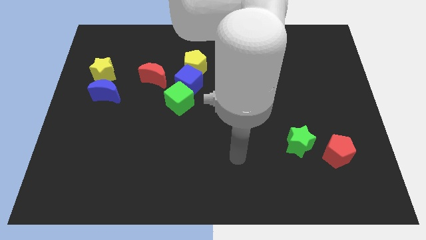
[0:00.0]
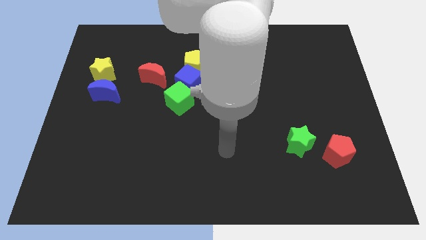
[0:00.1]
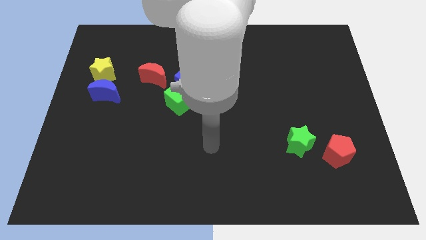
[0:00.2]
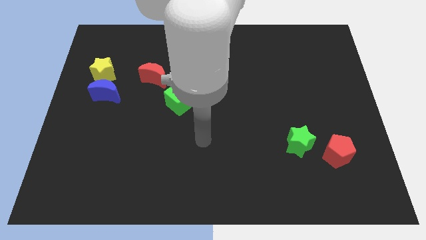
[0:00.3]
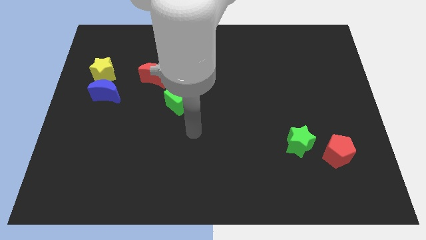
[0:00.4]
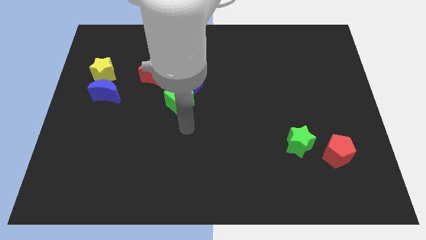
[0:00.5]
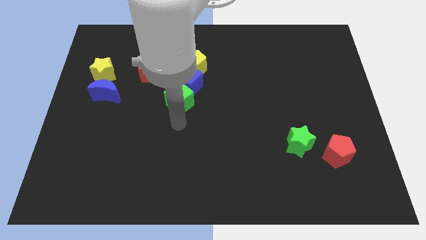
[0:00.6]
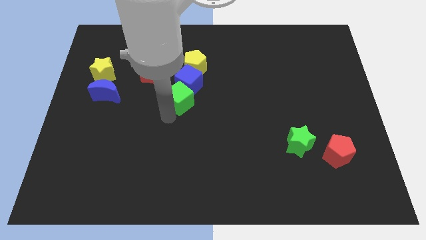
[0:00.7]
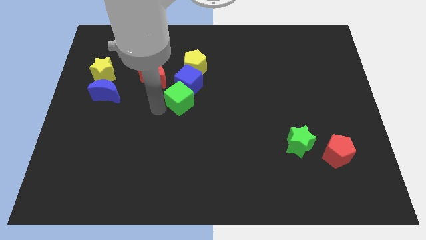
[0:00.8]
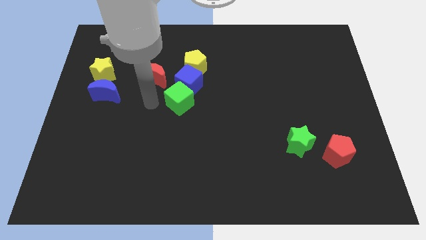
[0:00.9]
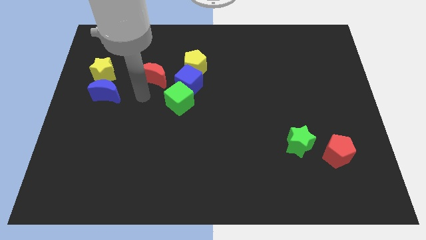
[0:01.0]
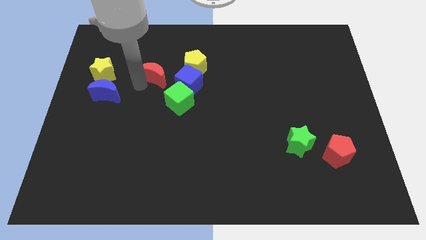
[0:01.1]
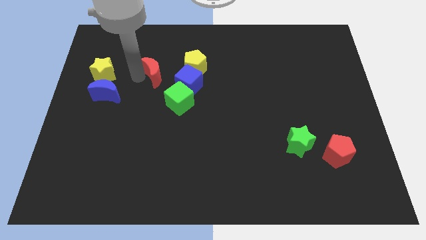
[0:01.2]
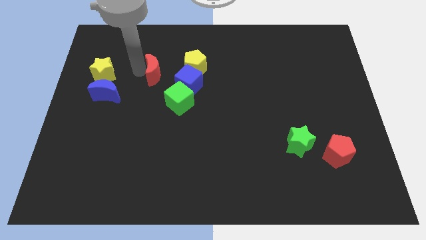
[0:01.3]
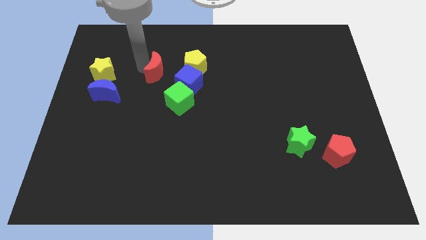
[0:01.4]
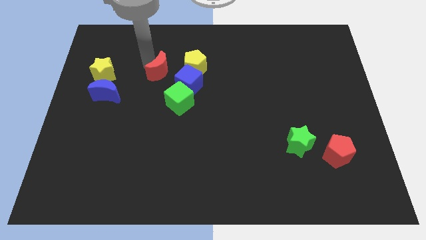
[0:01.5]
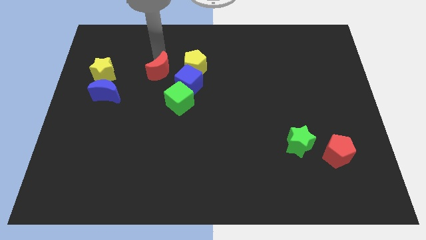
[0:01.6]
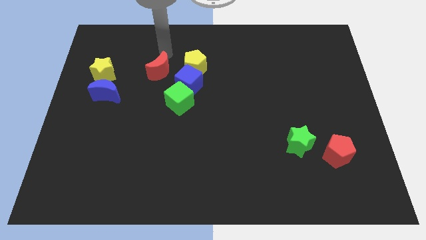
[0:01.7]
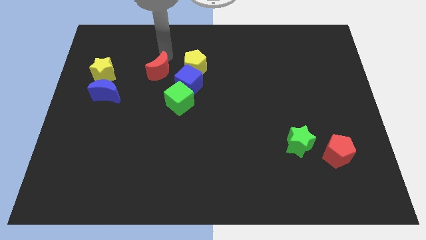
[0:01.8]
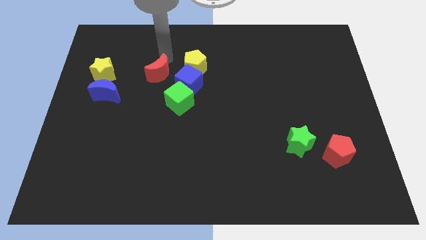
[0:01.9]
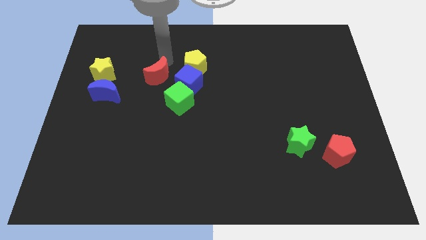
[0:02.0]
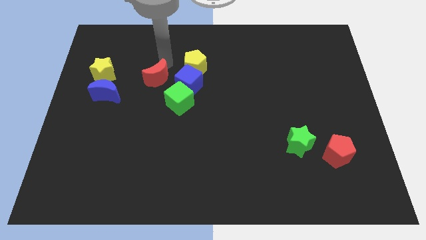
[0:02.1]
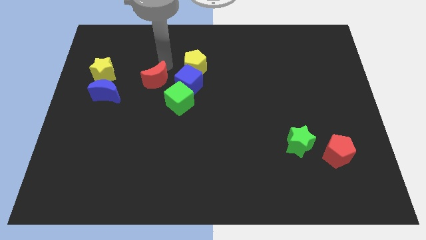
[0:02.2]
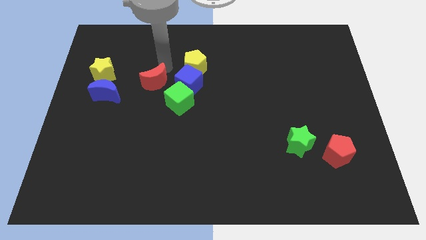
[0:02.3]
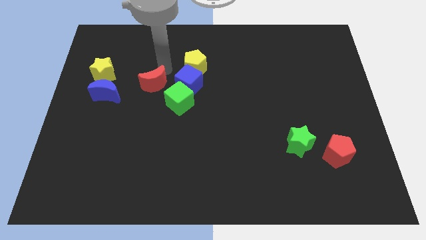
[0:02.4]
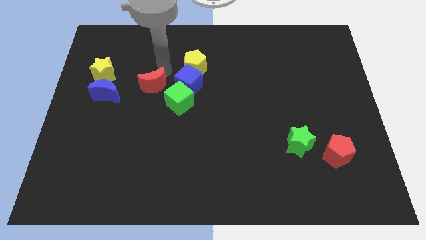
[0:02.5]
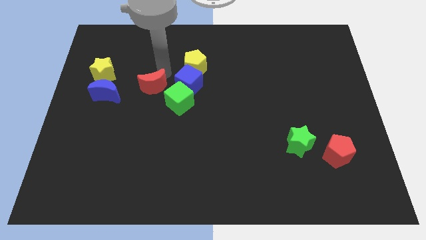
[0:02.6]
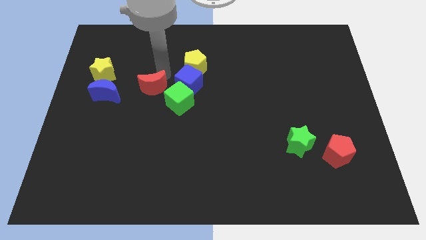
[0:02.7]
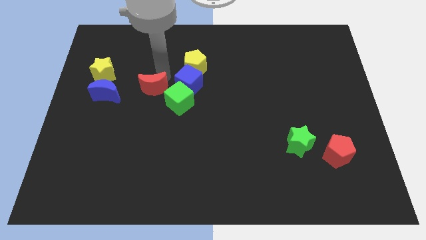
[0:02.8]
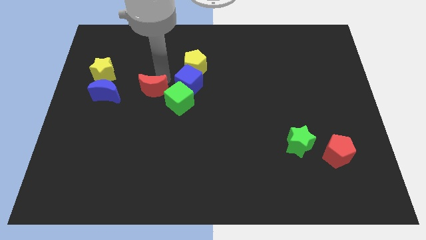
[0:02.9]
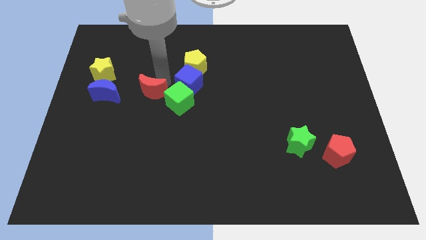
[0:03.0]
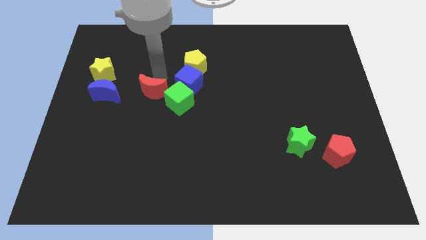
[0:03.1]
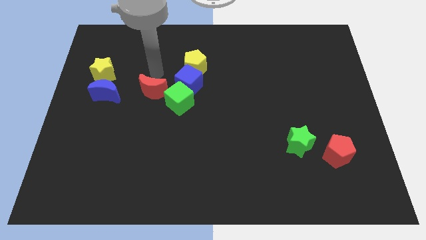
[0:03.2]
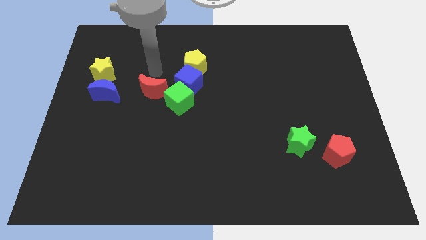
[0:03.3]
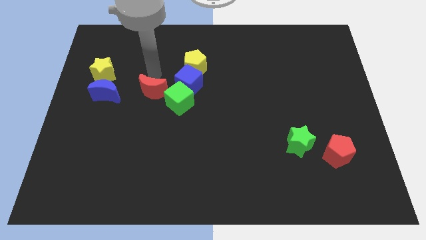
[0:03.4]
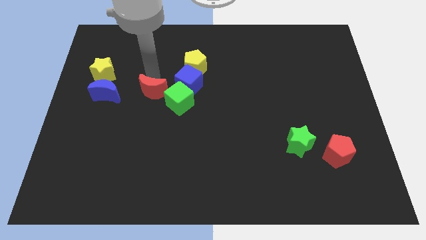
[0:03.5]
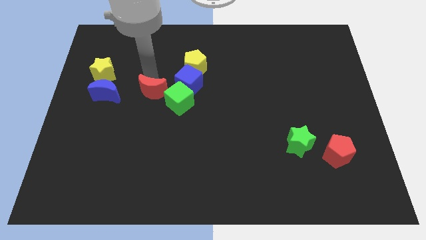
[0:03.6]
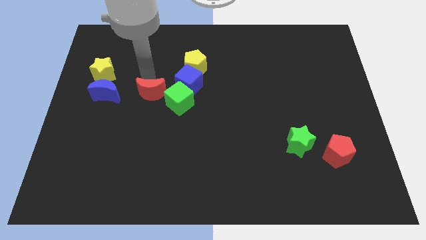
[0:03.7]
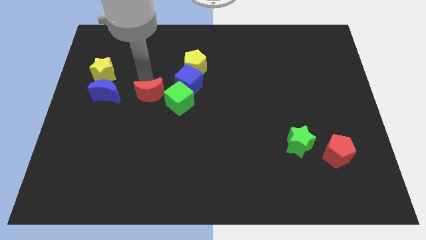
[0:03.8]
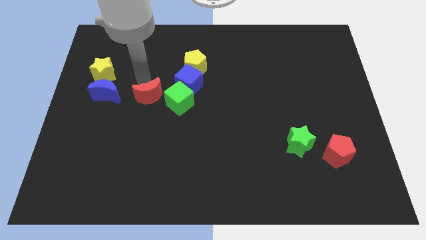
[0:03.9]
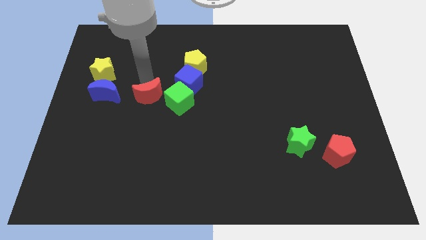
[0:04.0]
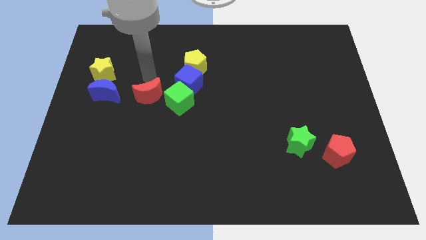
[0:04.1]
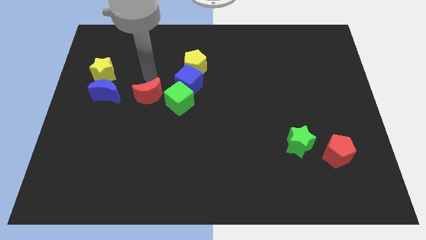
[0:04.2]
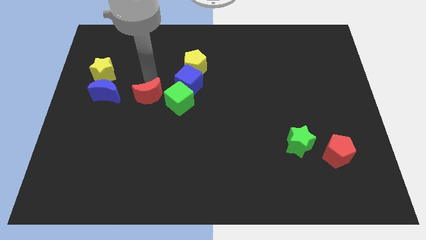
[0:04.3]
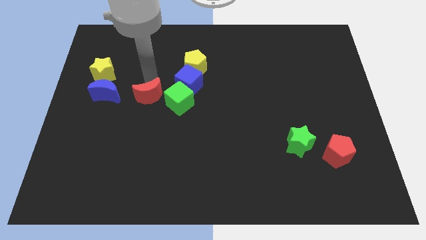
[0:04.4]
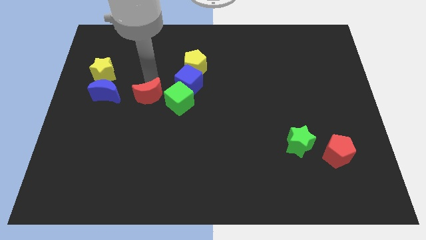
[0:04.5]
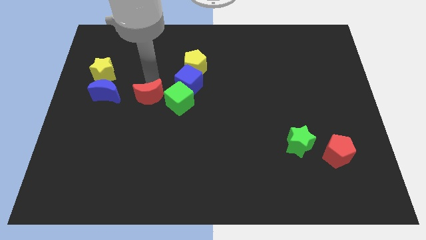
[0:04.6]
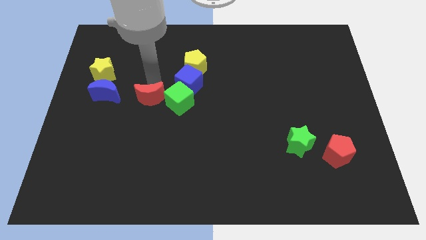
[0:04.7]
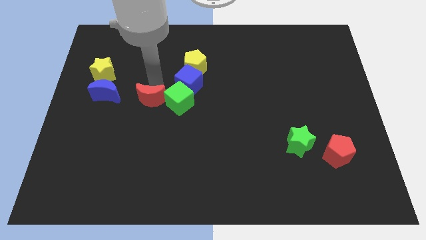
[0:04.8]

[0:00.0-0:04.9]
slide the red moon slightly downwards

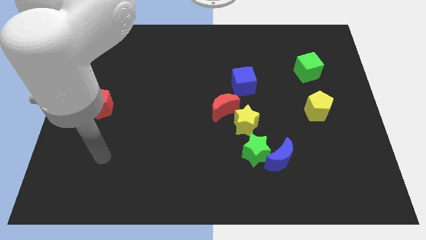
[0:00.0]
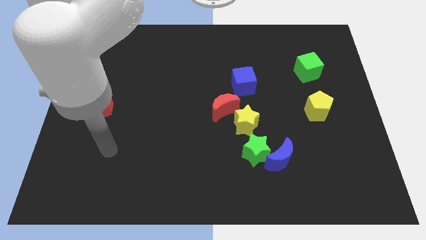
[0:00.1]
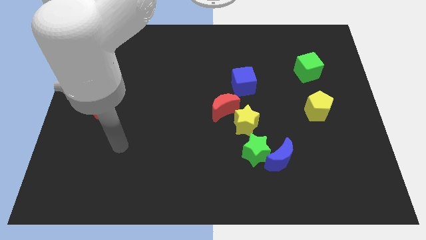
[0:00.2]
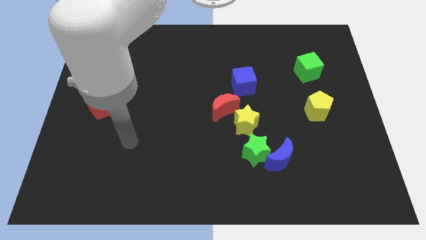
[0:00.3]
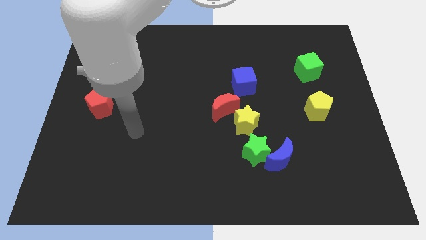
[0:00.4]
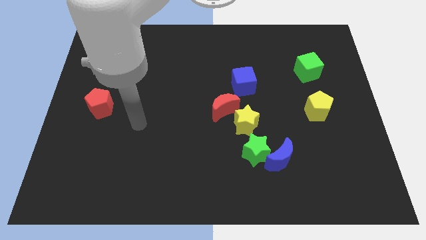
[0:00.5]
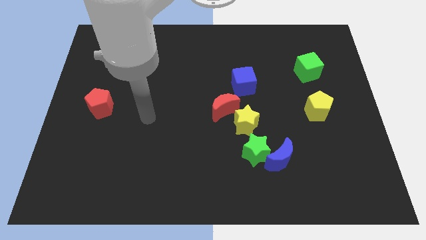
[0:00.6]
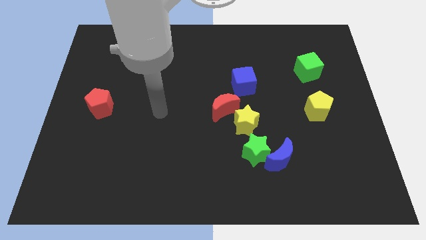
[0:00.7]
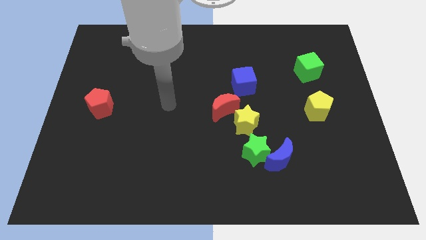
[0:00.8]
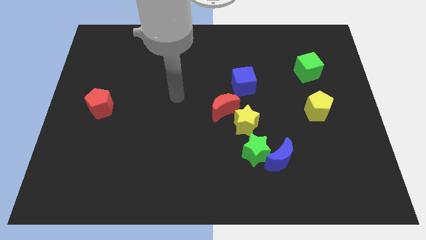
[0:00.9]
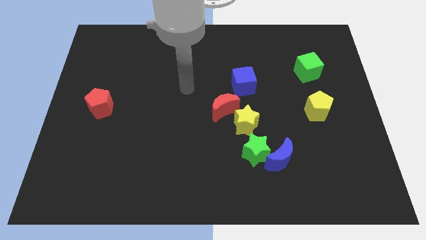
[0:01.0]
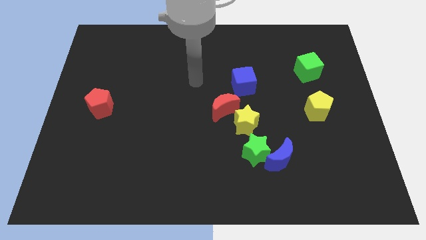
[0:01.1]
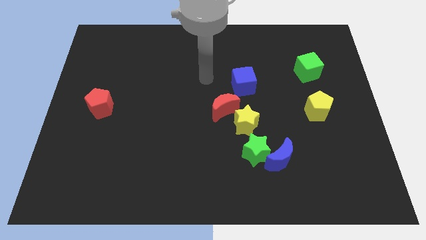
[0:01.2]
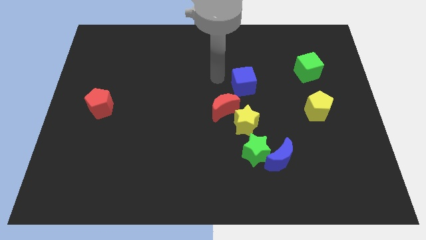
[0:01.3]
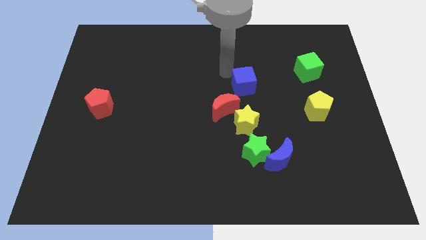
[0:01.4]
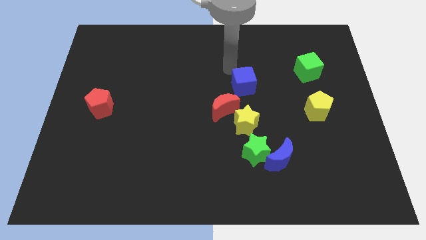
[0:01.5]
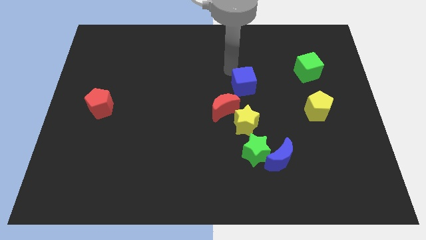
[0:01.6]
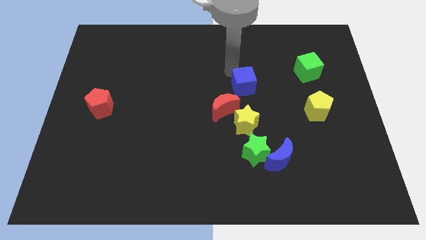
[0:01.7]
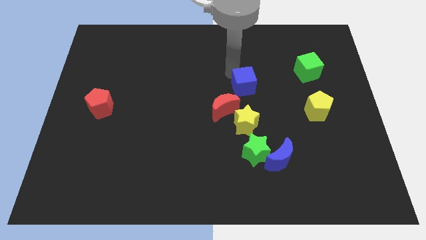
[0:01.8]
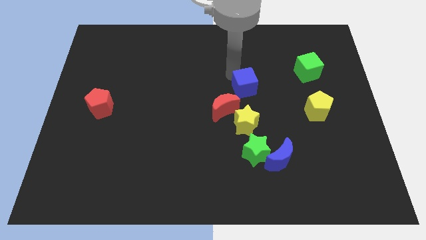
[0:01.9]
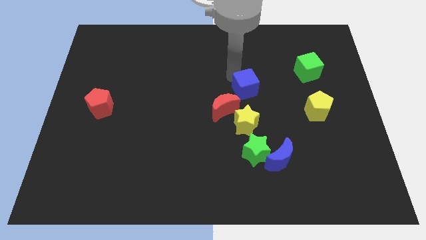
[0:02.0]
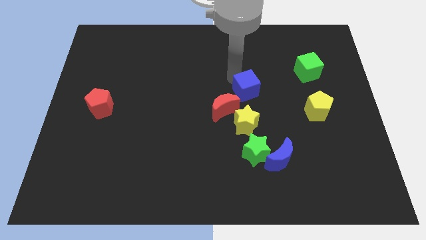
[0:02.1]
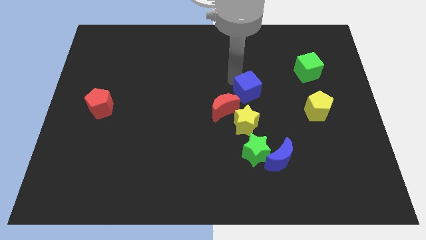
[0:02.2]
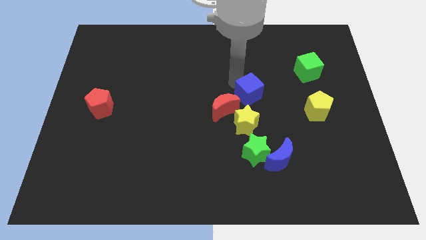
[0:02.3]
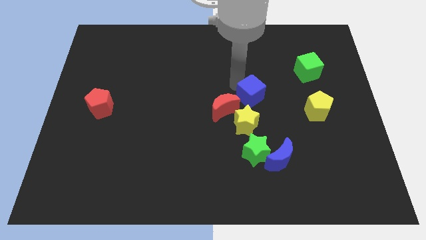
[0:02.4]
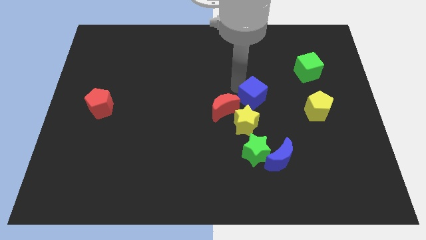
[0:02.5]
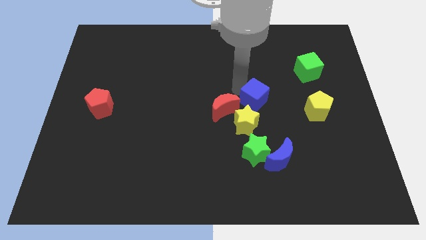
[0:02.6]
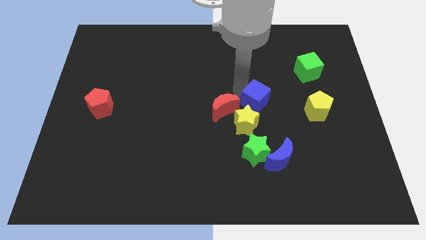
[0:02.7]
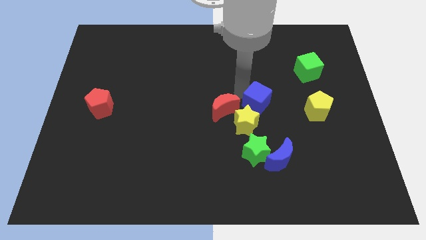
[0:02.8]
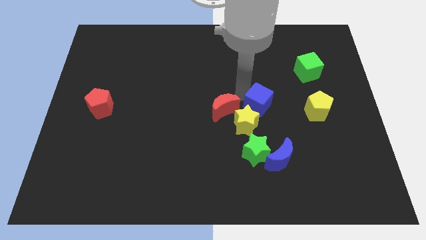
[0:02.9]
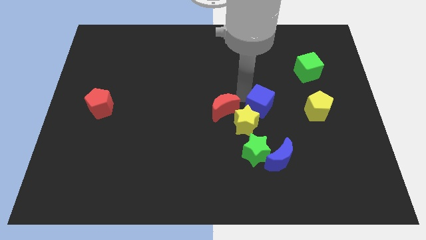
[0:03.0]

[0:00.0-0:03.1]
slightly slide the blue cube down and then right

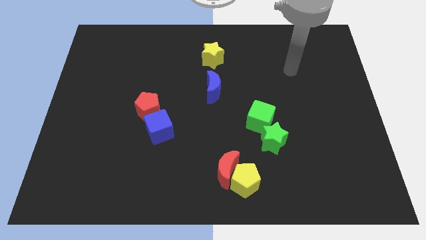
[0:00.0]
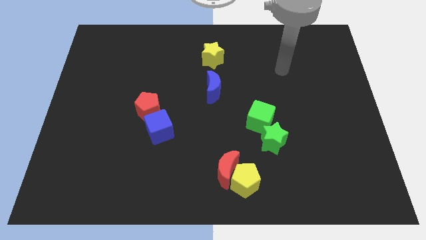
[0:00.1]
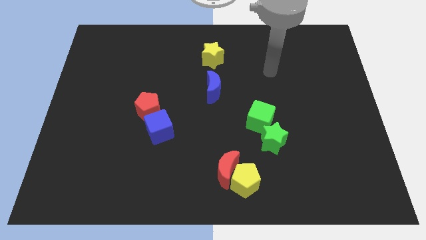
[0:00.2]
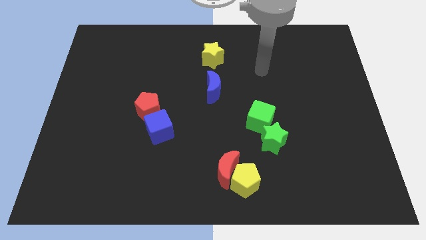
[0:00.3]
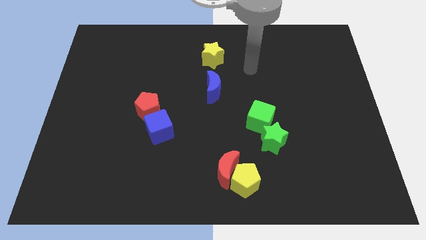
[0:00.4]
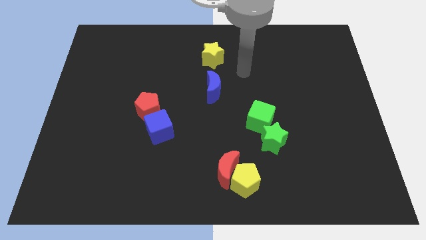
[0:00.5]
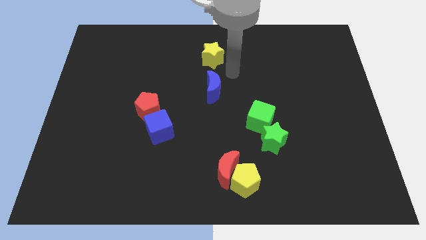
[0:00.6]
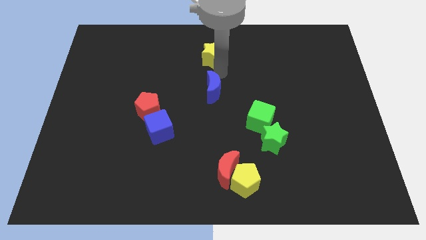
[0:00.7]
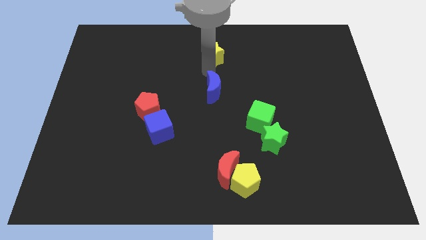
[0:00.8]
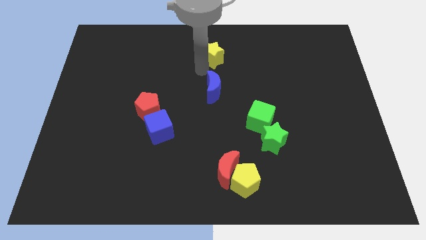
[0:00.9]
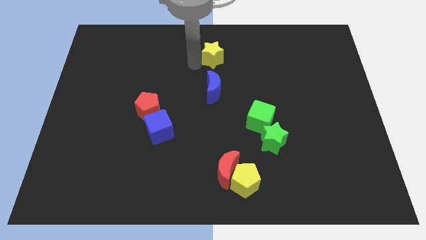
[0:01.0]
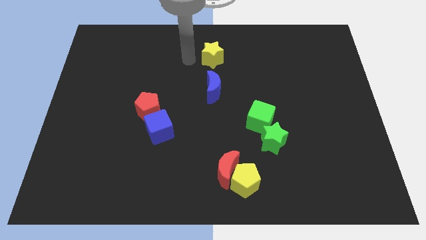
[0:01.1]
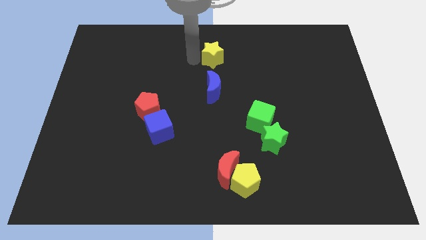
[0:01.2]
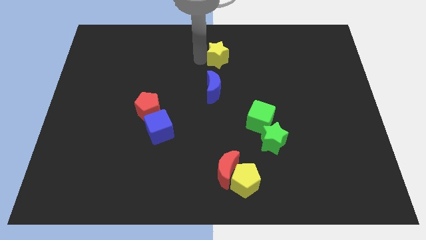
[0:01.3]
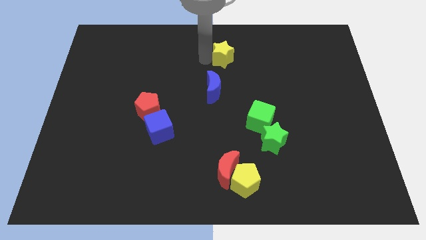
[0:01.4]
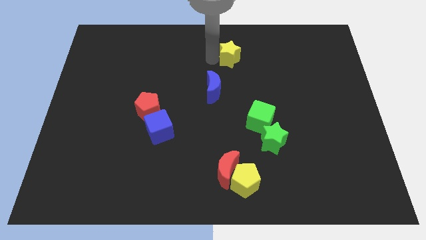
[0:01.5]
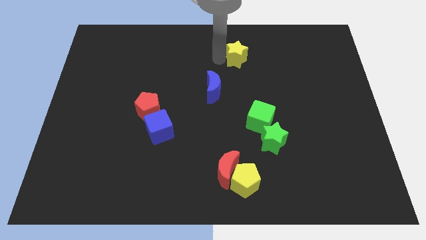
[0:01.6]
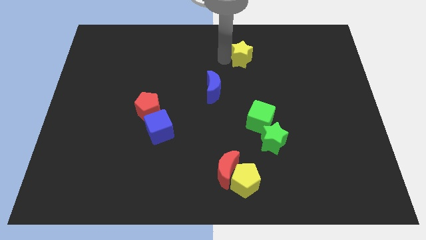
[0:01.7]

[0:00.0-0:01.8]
move the yellow star to the right a little
